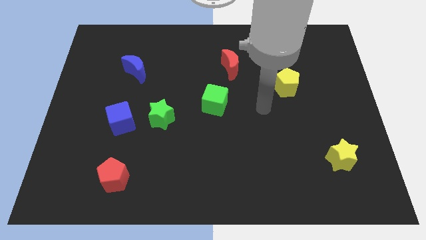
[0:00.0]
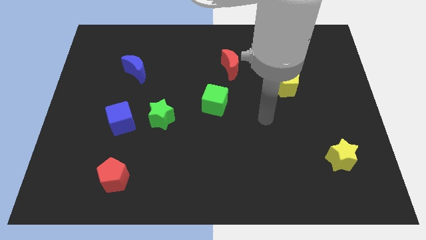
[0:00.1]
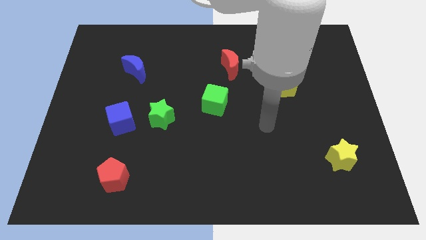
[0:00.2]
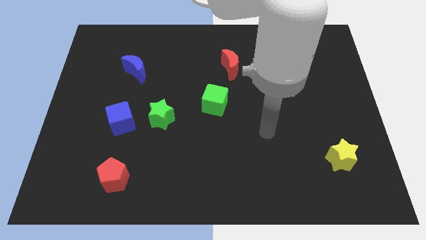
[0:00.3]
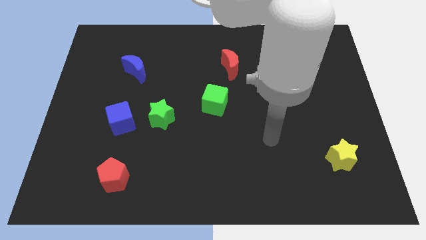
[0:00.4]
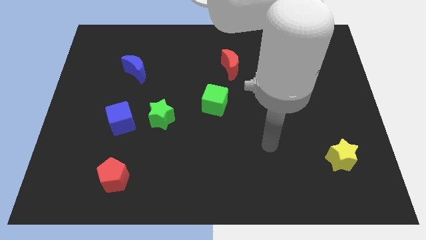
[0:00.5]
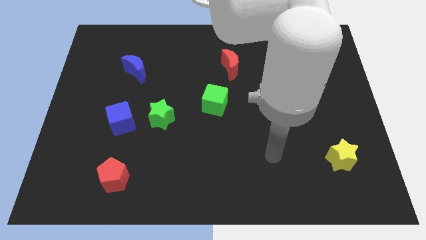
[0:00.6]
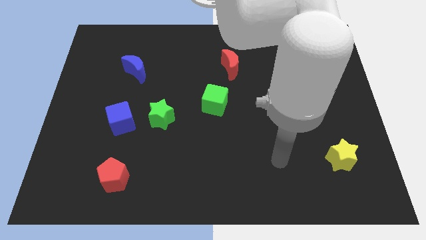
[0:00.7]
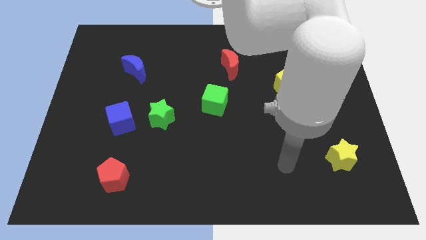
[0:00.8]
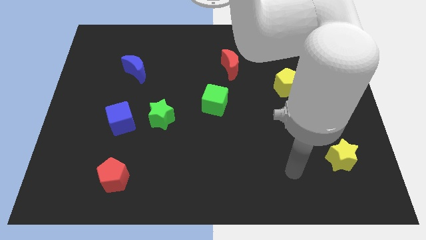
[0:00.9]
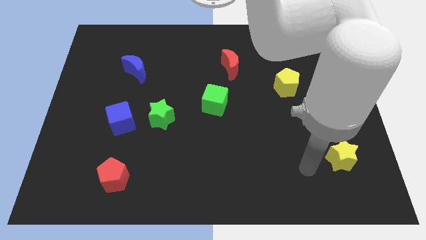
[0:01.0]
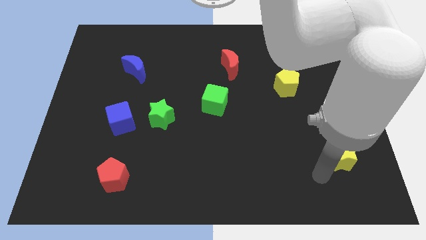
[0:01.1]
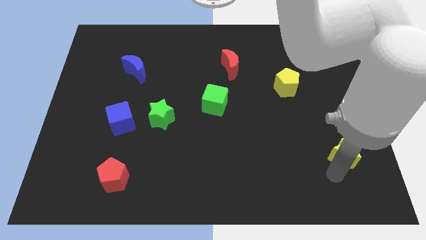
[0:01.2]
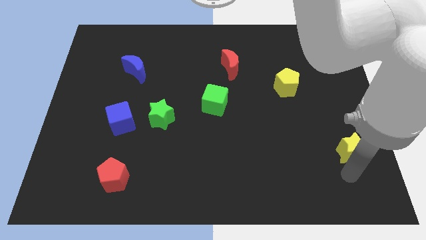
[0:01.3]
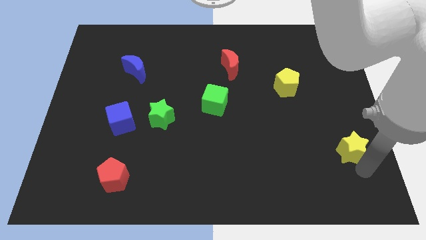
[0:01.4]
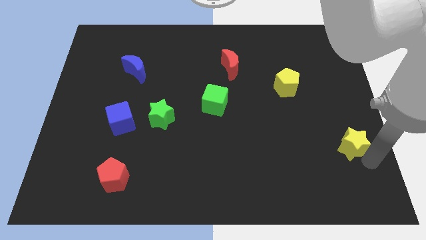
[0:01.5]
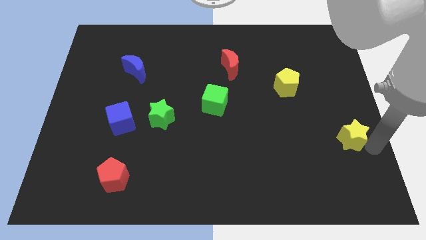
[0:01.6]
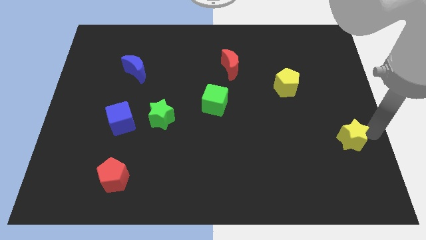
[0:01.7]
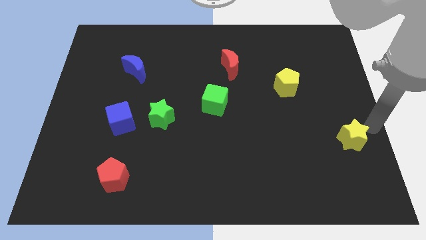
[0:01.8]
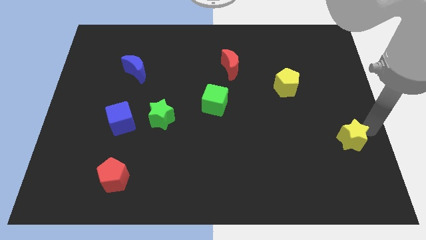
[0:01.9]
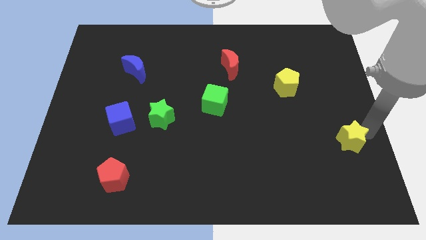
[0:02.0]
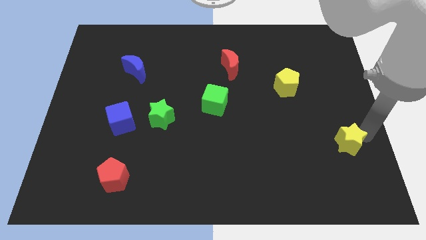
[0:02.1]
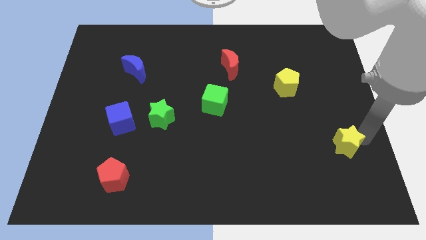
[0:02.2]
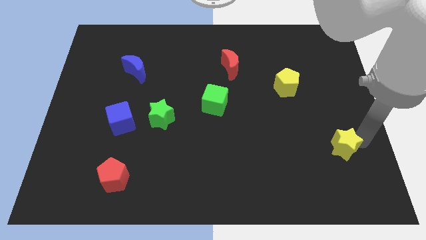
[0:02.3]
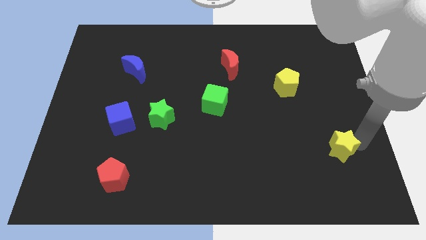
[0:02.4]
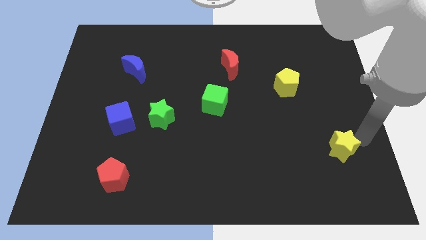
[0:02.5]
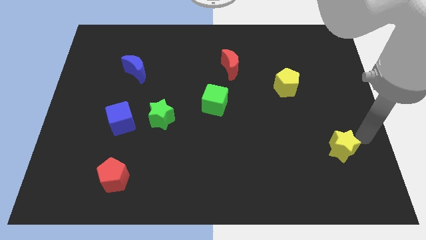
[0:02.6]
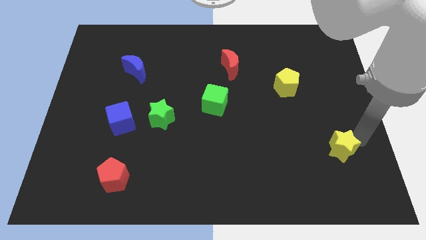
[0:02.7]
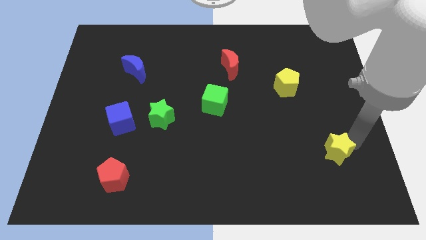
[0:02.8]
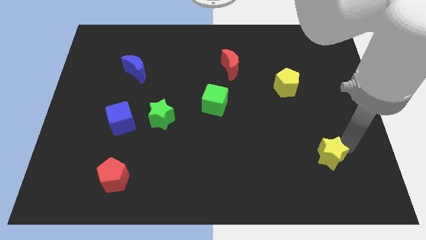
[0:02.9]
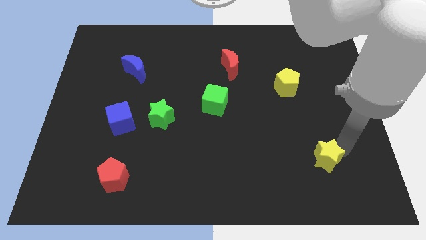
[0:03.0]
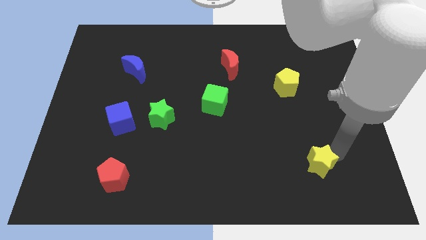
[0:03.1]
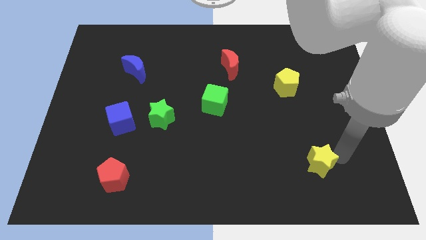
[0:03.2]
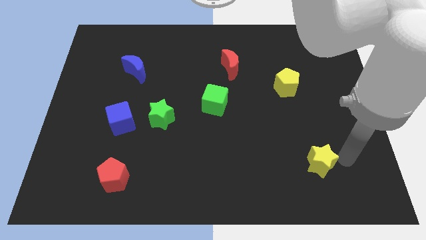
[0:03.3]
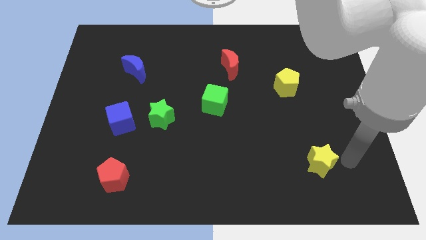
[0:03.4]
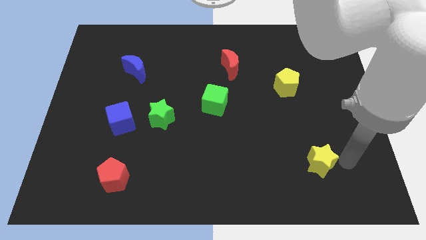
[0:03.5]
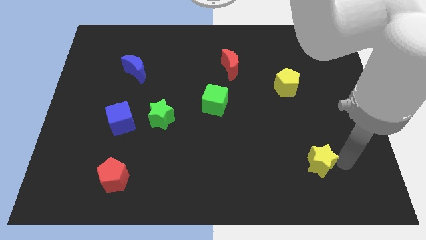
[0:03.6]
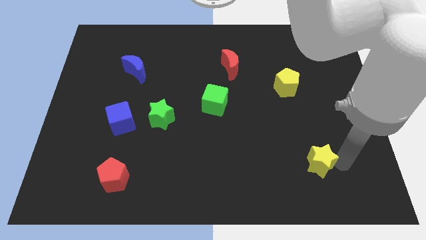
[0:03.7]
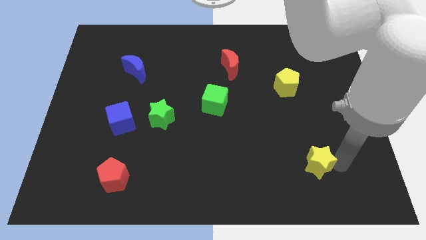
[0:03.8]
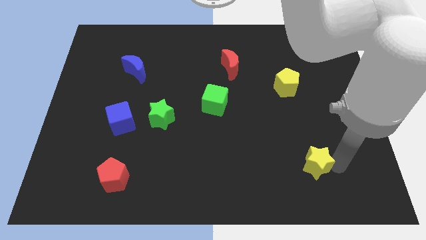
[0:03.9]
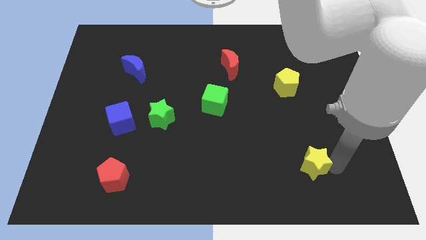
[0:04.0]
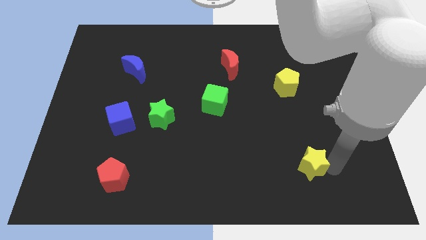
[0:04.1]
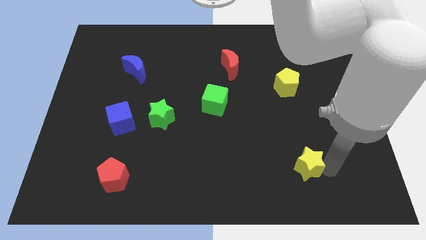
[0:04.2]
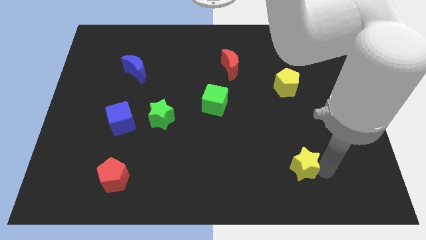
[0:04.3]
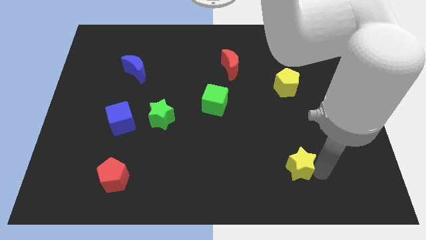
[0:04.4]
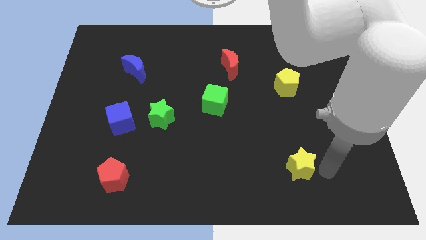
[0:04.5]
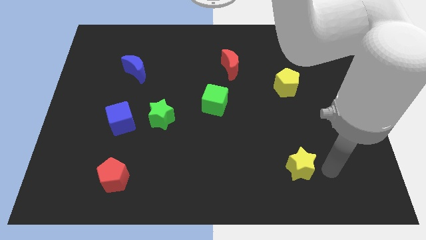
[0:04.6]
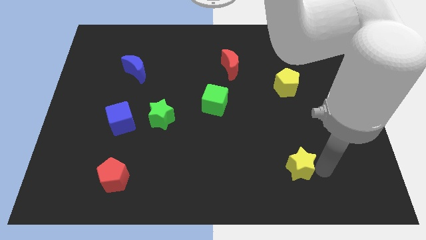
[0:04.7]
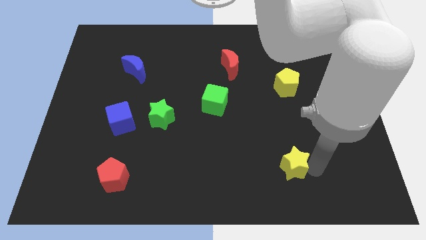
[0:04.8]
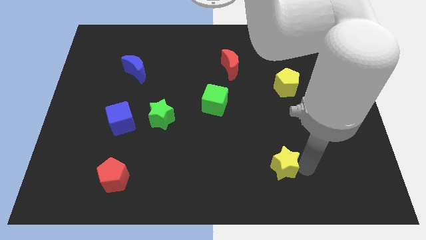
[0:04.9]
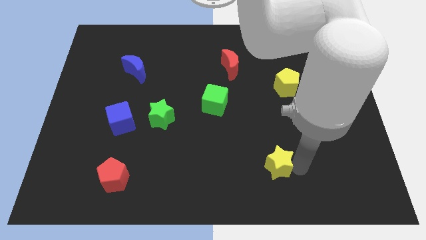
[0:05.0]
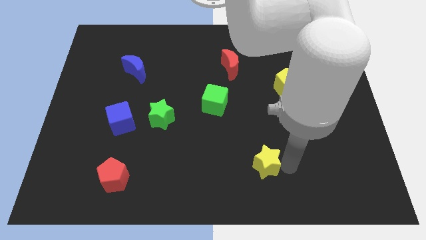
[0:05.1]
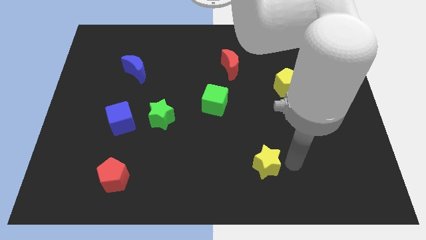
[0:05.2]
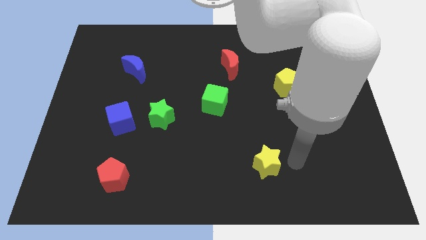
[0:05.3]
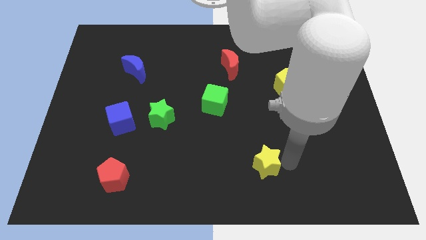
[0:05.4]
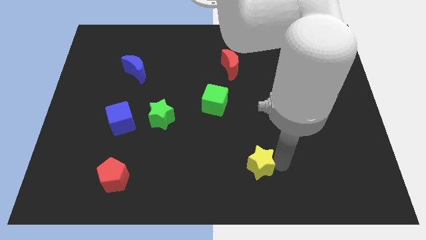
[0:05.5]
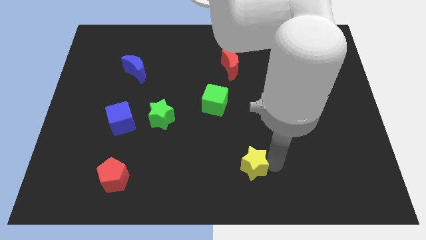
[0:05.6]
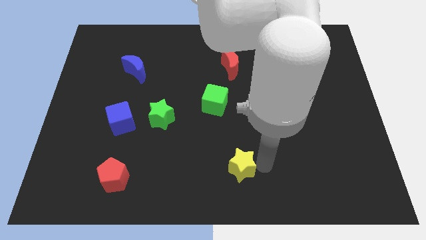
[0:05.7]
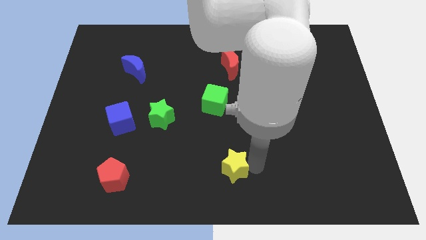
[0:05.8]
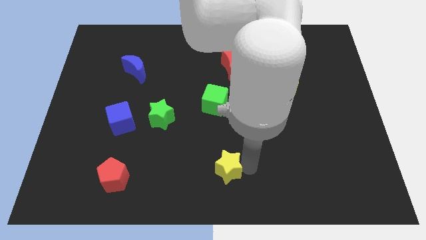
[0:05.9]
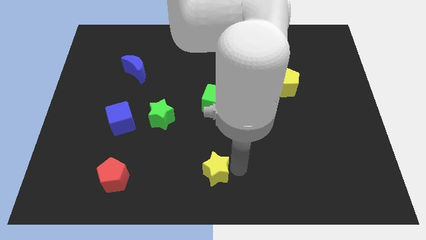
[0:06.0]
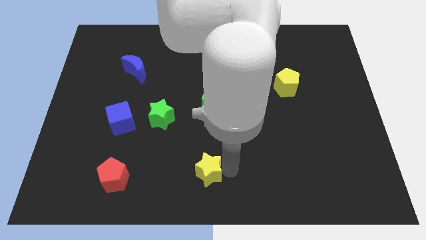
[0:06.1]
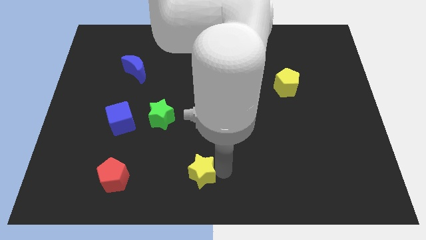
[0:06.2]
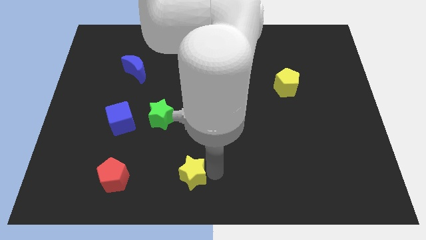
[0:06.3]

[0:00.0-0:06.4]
slide the yellow star to the right side of the red pentagon

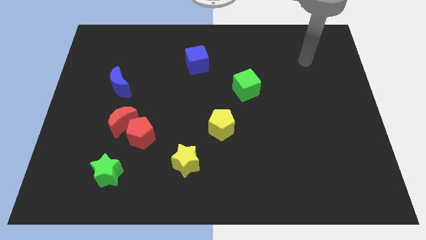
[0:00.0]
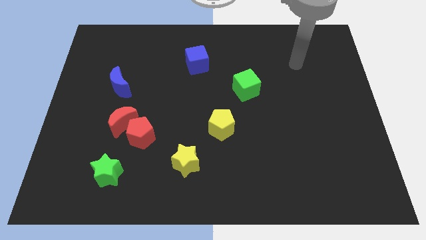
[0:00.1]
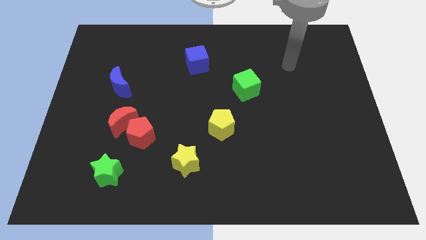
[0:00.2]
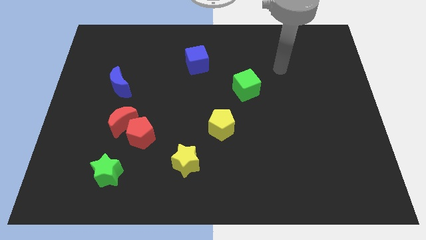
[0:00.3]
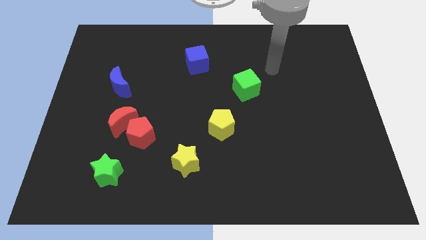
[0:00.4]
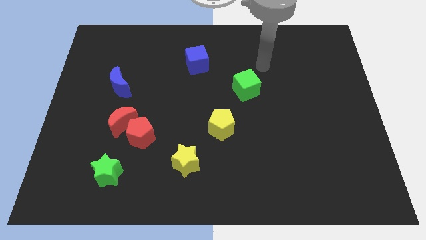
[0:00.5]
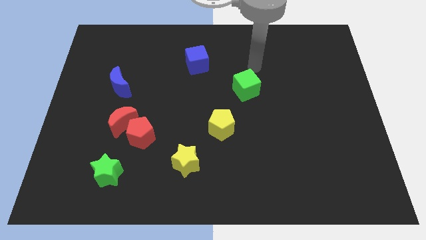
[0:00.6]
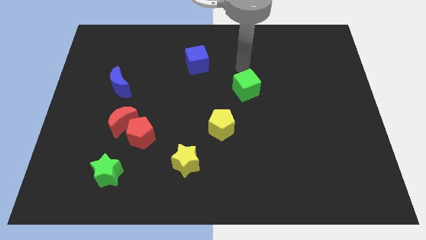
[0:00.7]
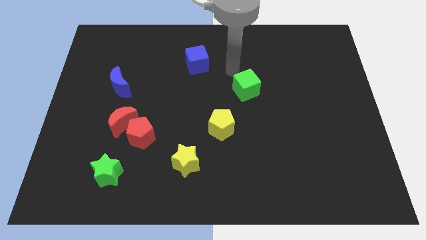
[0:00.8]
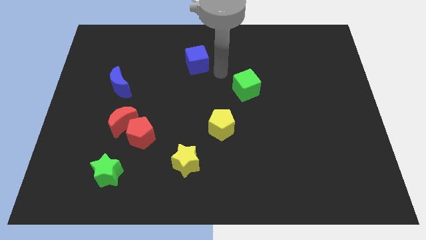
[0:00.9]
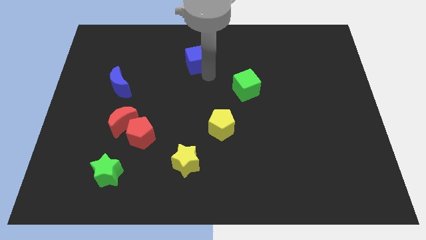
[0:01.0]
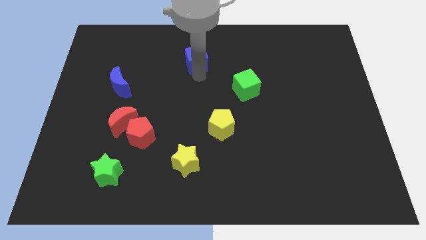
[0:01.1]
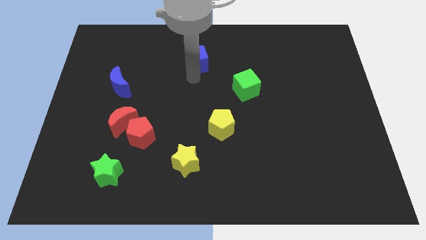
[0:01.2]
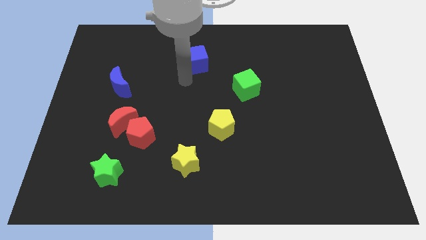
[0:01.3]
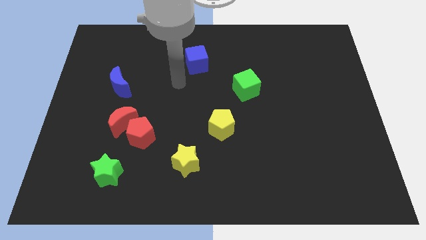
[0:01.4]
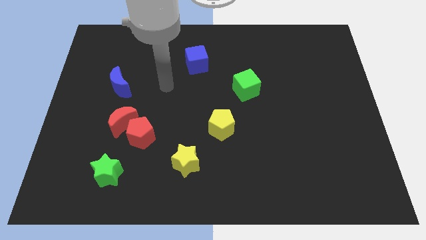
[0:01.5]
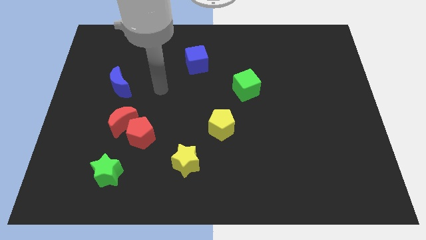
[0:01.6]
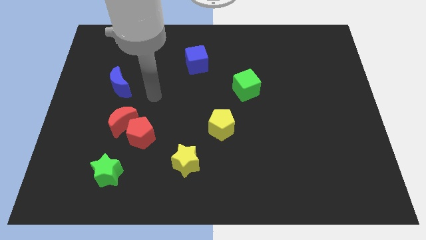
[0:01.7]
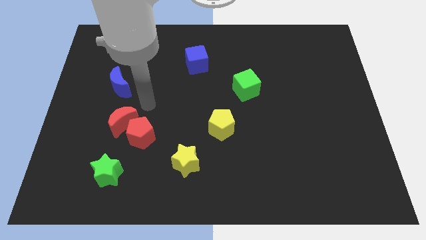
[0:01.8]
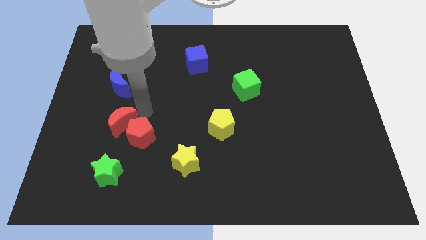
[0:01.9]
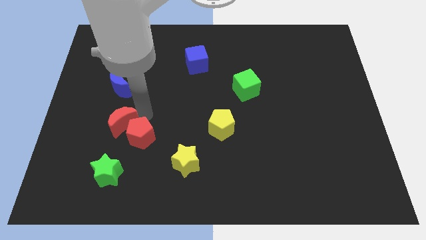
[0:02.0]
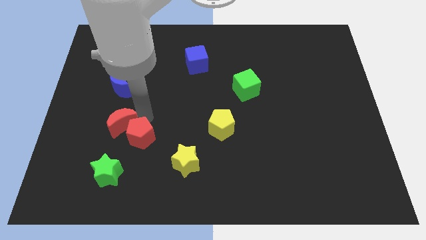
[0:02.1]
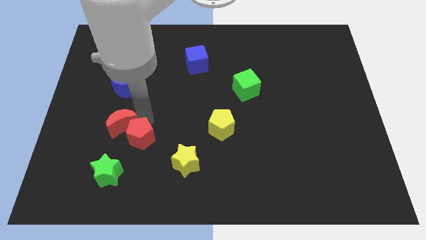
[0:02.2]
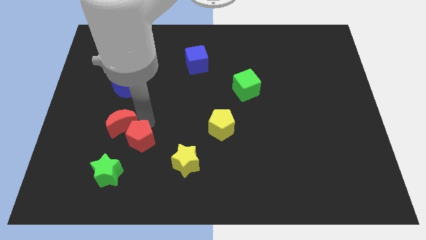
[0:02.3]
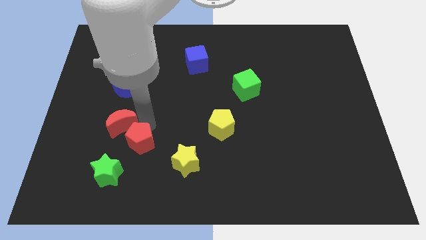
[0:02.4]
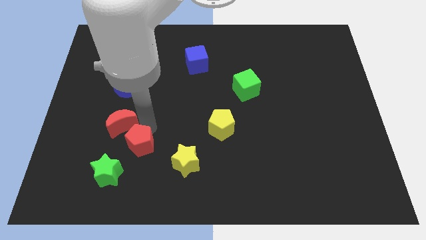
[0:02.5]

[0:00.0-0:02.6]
push the red pentagon to the left side of the yellow star
